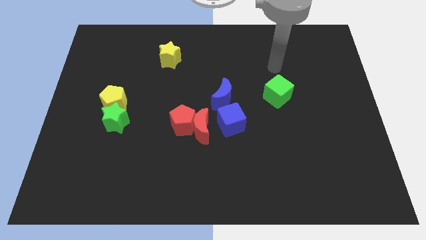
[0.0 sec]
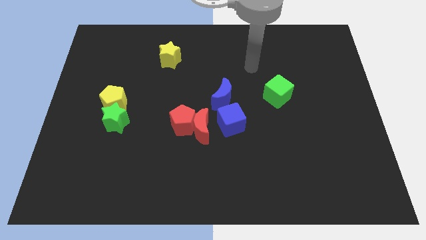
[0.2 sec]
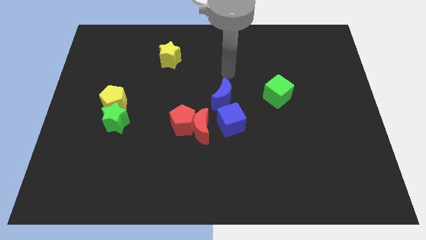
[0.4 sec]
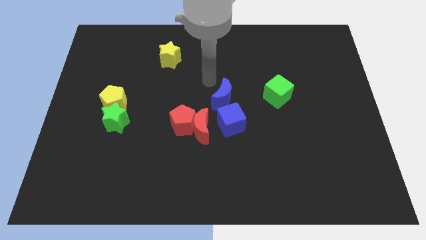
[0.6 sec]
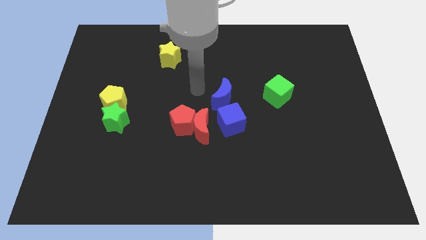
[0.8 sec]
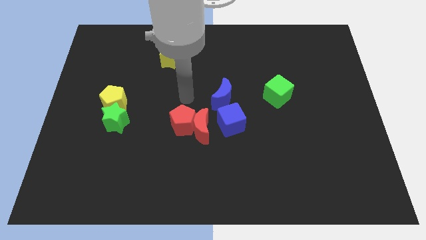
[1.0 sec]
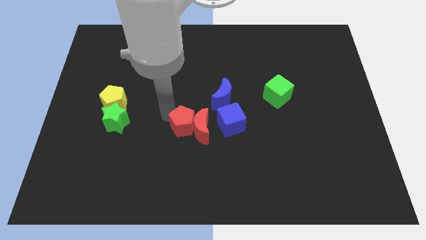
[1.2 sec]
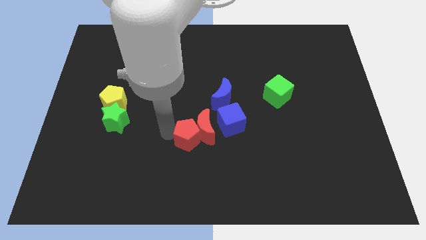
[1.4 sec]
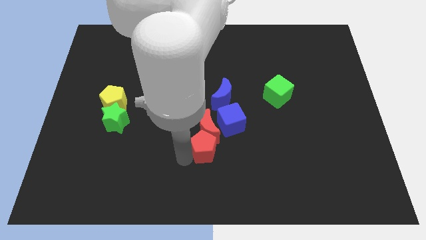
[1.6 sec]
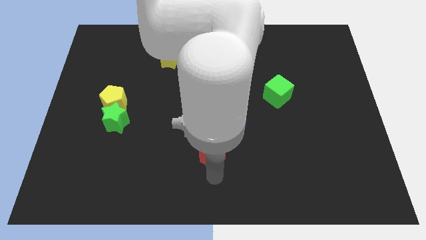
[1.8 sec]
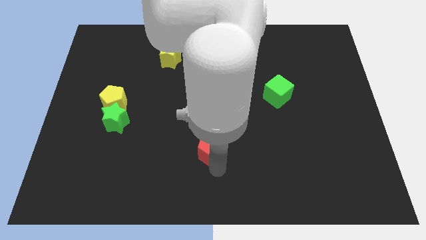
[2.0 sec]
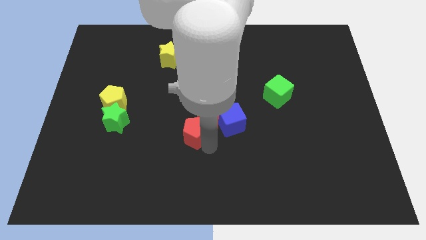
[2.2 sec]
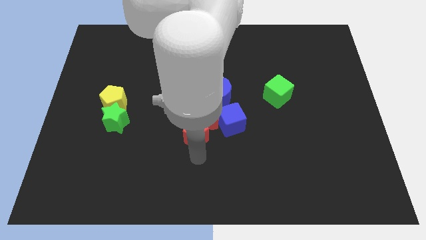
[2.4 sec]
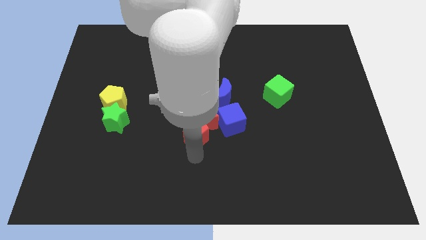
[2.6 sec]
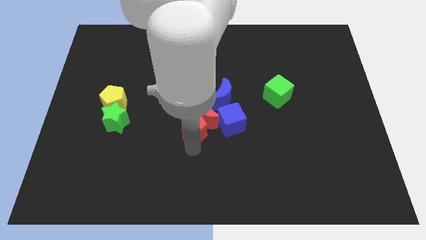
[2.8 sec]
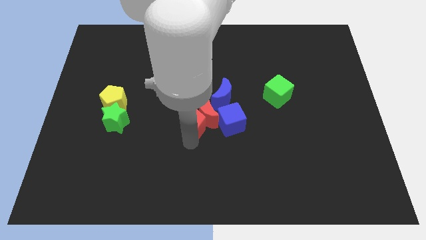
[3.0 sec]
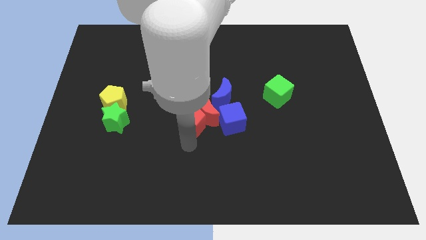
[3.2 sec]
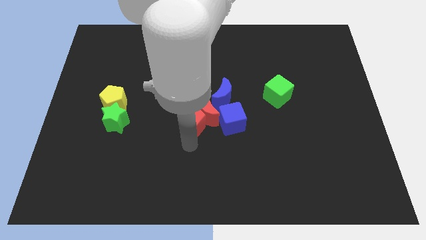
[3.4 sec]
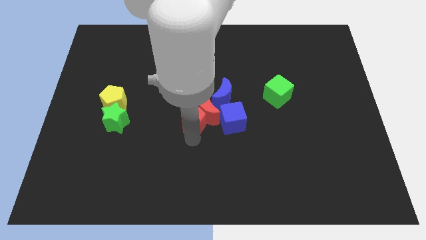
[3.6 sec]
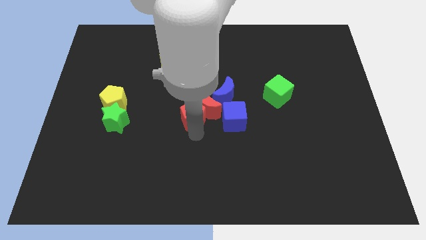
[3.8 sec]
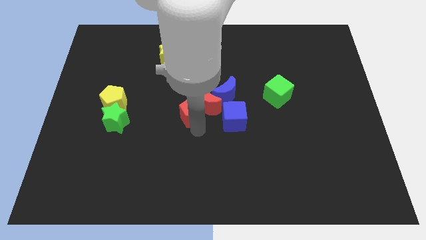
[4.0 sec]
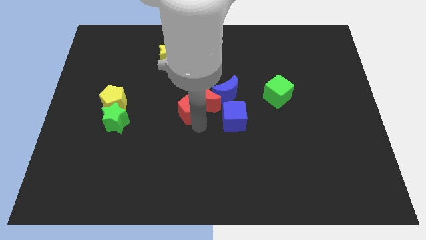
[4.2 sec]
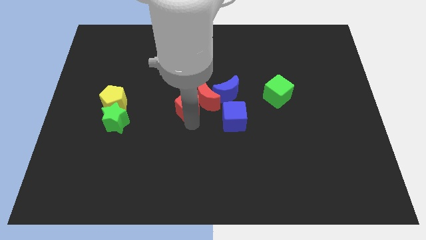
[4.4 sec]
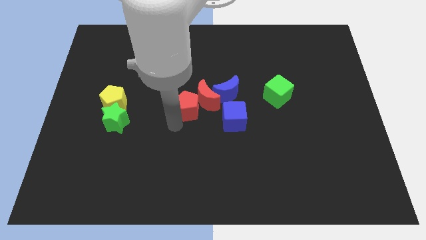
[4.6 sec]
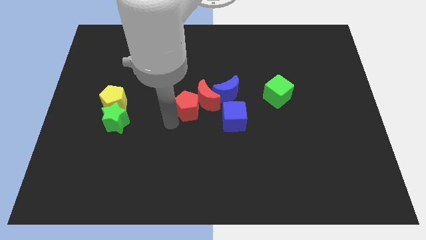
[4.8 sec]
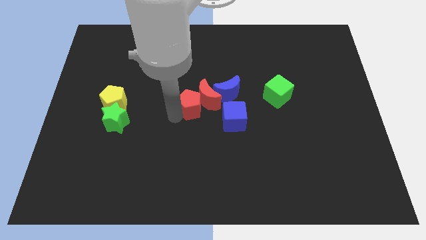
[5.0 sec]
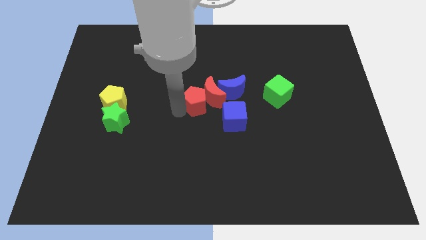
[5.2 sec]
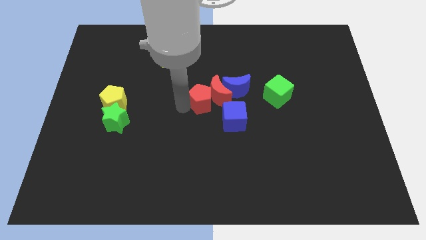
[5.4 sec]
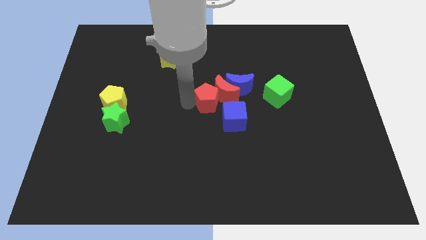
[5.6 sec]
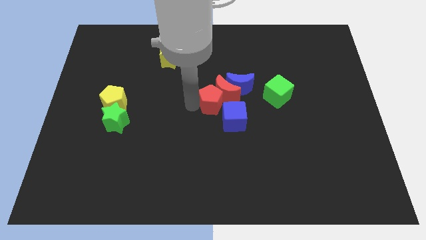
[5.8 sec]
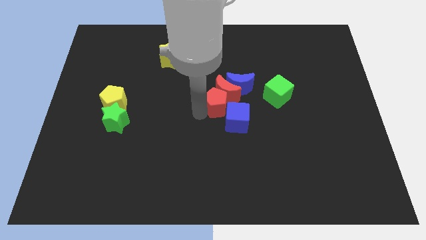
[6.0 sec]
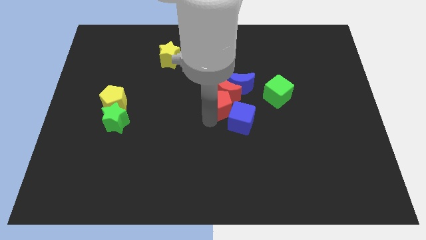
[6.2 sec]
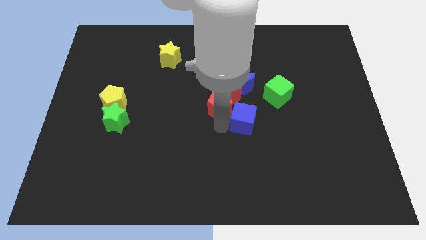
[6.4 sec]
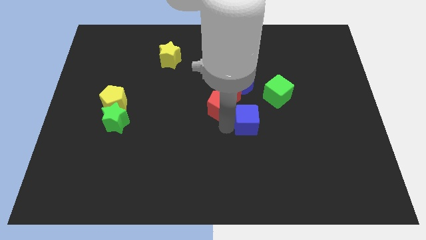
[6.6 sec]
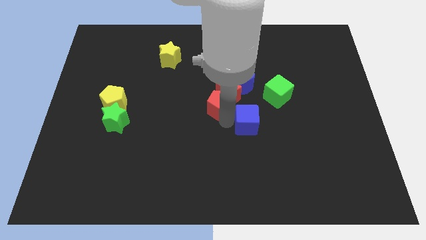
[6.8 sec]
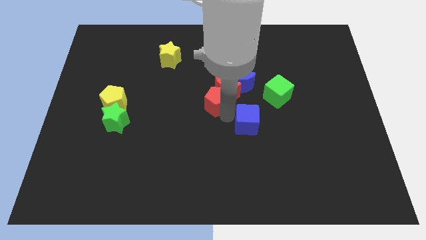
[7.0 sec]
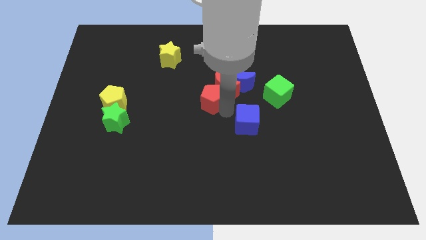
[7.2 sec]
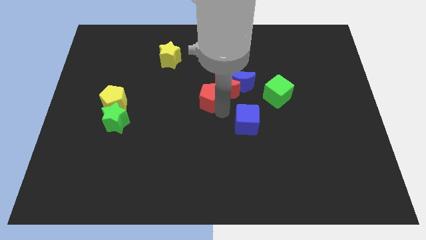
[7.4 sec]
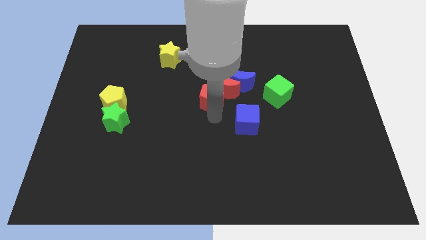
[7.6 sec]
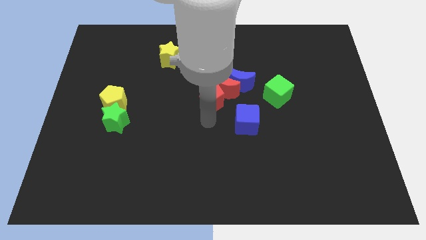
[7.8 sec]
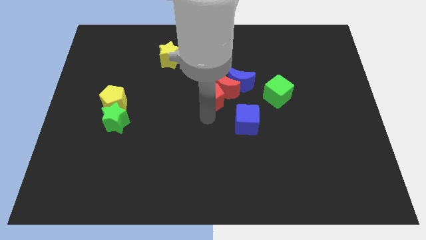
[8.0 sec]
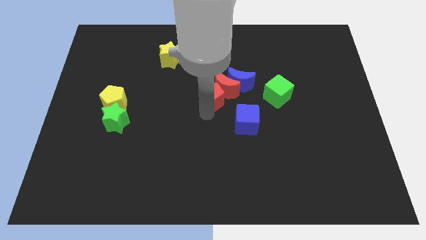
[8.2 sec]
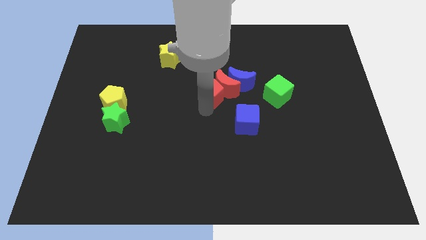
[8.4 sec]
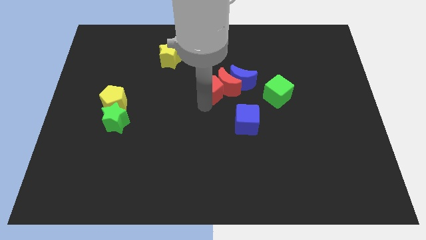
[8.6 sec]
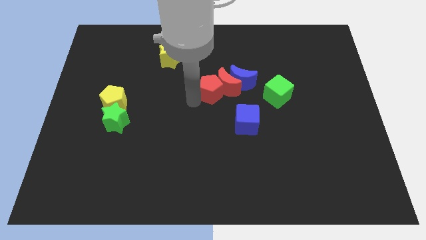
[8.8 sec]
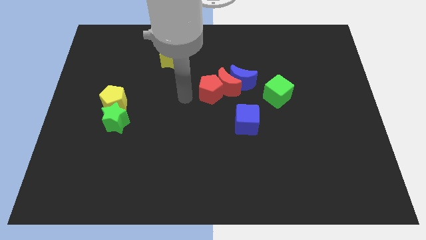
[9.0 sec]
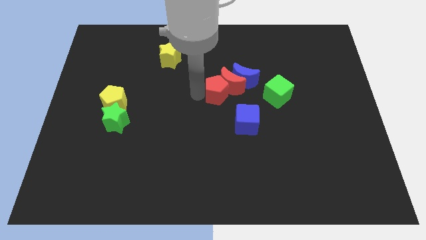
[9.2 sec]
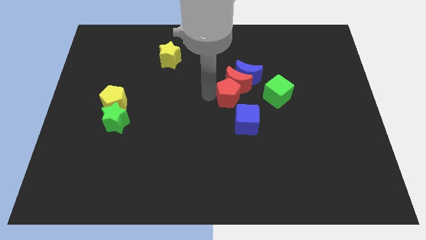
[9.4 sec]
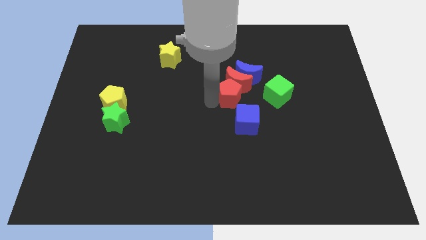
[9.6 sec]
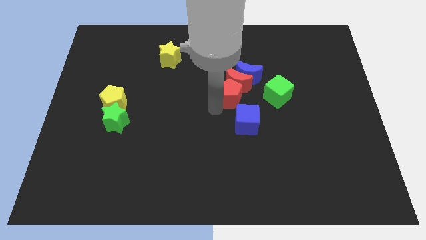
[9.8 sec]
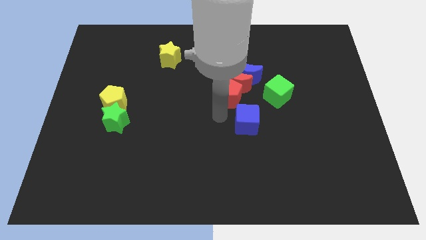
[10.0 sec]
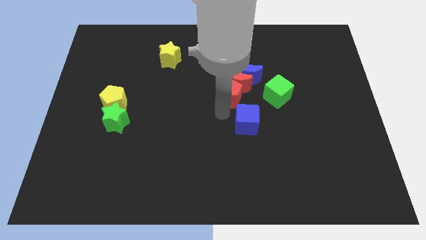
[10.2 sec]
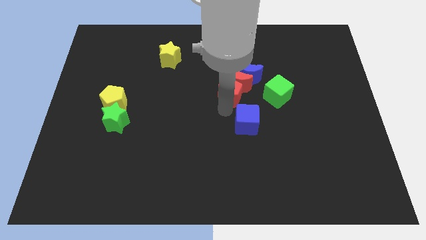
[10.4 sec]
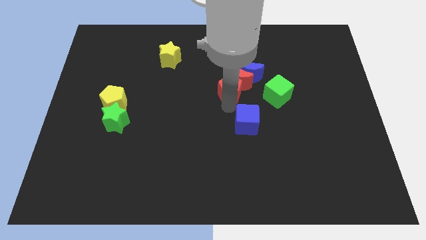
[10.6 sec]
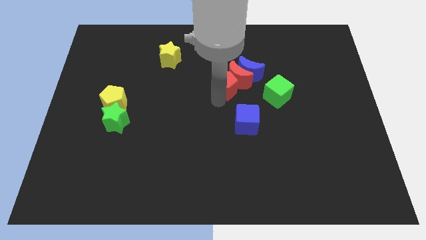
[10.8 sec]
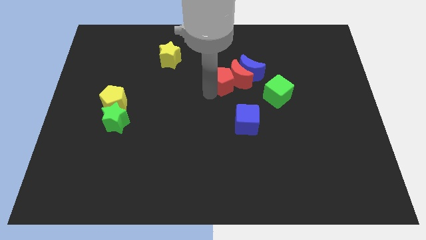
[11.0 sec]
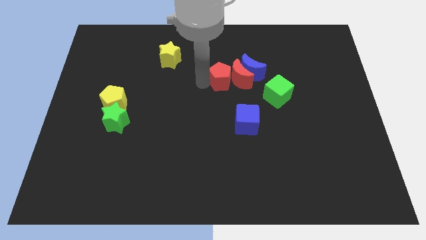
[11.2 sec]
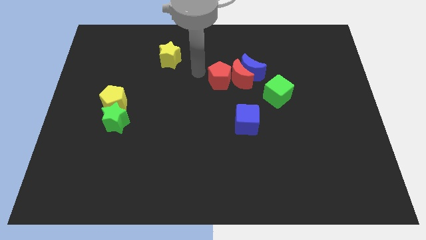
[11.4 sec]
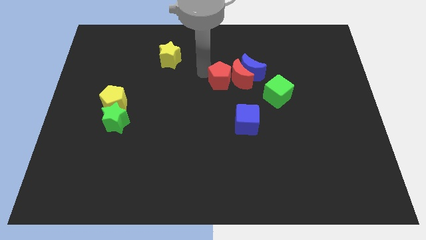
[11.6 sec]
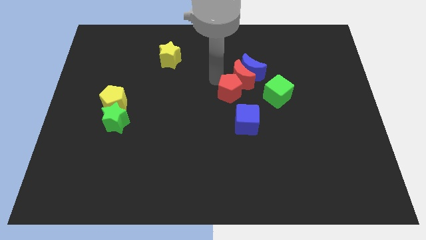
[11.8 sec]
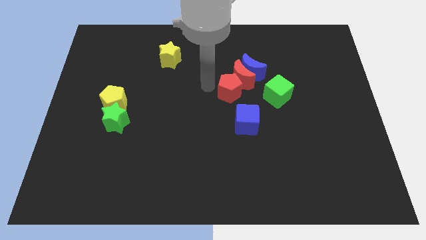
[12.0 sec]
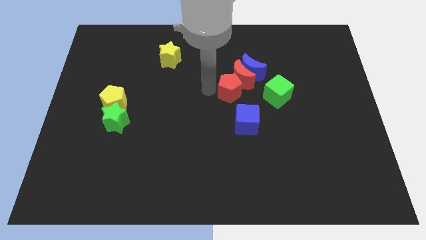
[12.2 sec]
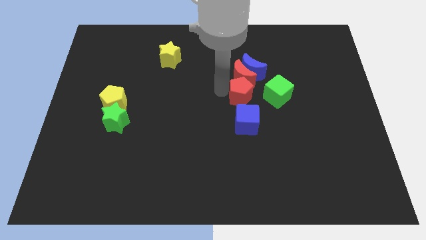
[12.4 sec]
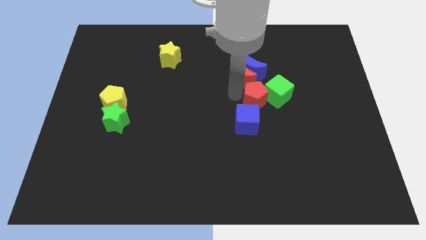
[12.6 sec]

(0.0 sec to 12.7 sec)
push the red pentagon to the green cube

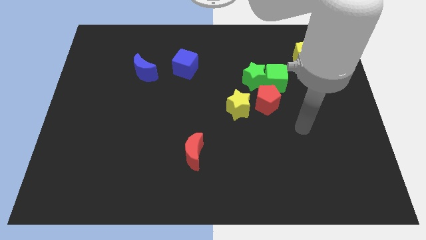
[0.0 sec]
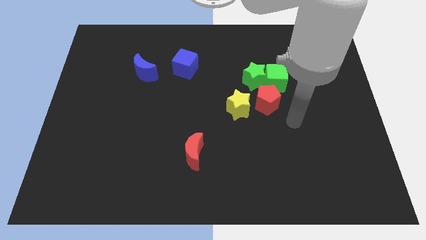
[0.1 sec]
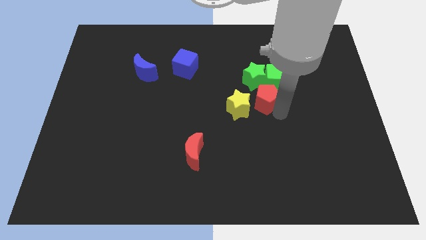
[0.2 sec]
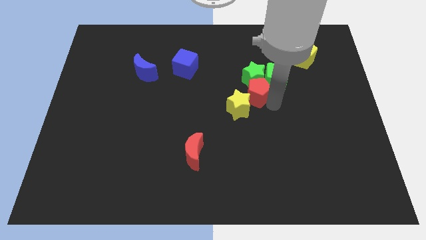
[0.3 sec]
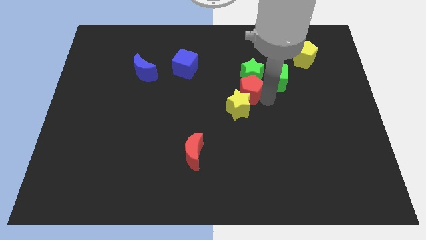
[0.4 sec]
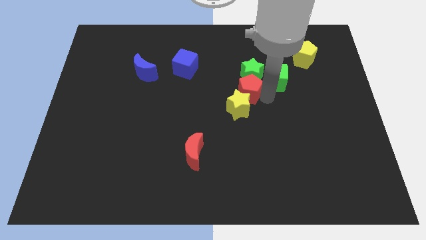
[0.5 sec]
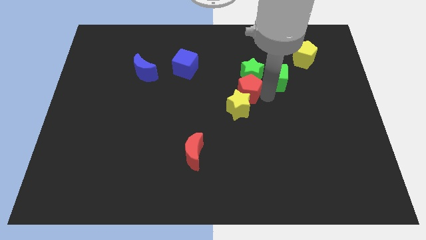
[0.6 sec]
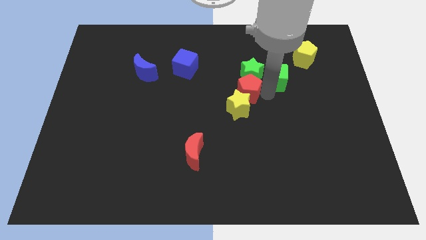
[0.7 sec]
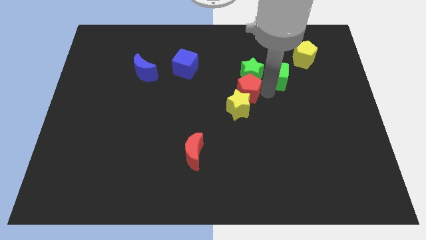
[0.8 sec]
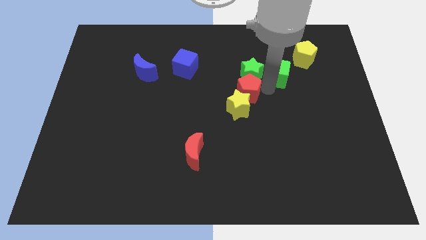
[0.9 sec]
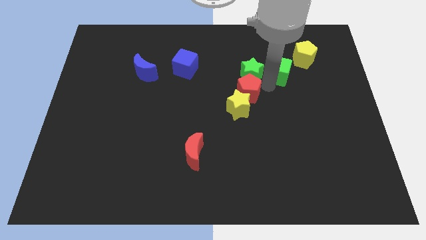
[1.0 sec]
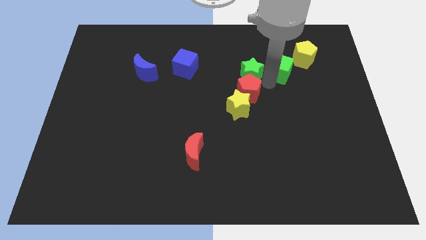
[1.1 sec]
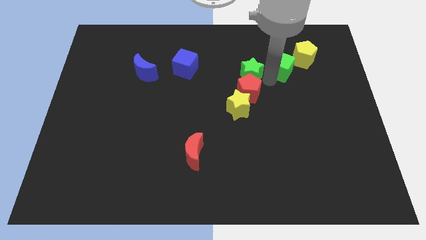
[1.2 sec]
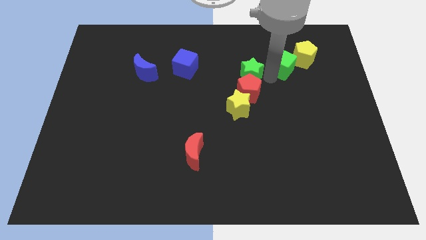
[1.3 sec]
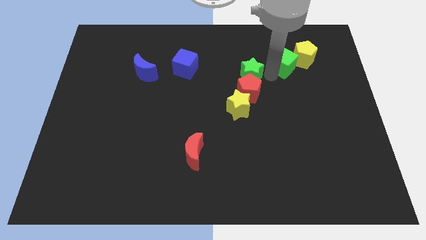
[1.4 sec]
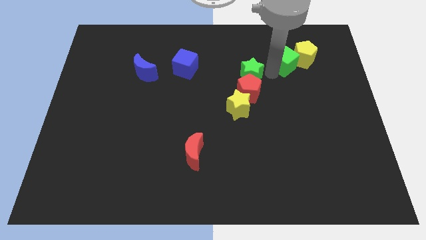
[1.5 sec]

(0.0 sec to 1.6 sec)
push the green cube towards the yellow pentagon

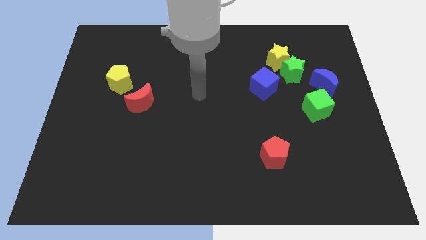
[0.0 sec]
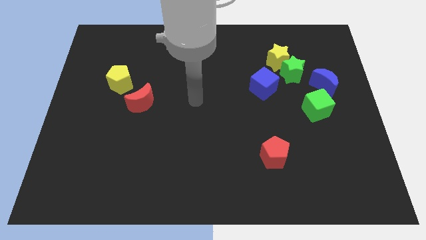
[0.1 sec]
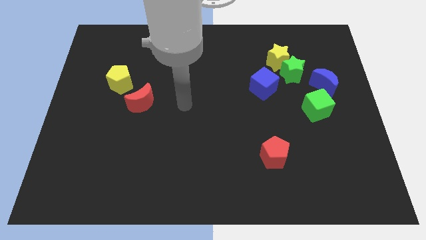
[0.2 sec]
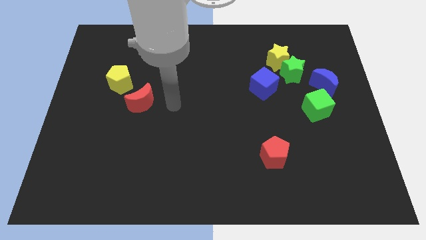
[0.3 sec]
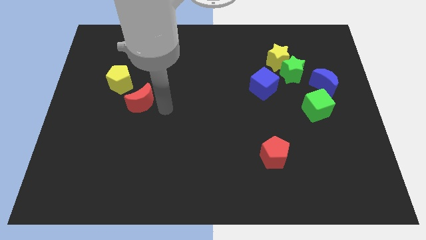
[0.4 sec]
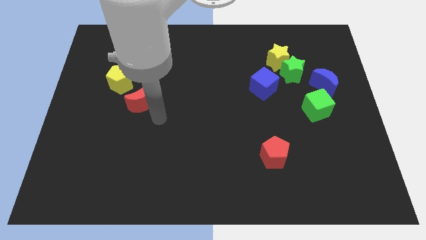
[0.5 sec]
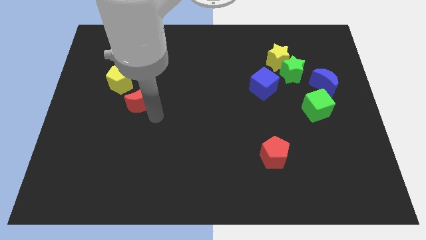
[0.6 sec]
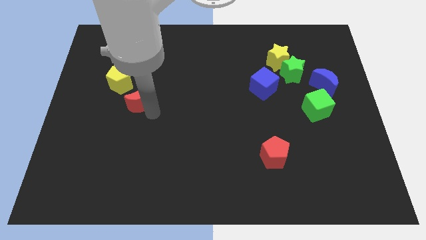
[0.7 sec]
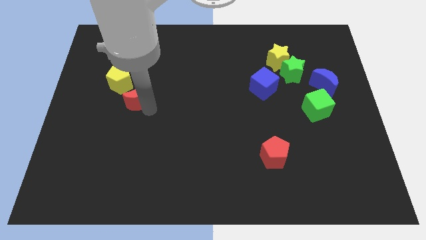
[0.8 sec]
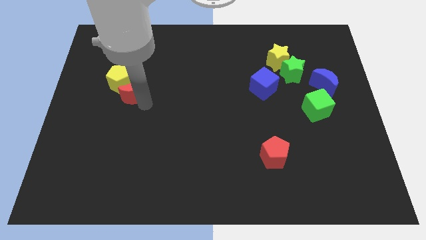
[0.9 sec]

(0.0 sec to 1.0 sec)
push the red moon towards the yellow pentagon
